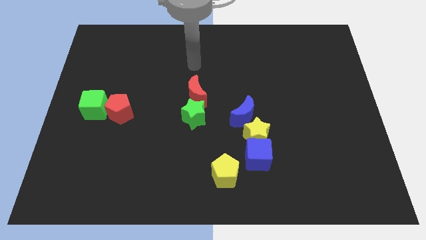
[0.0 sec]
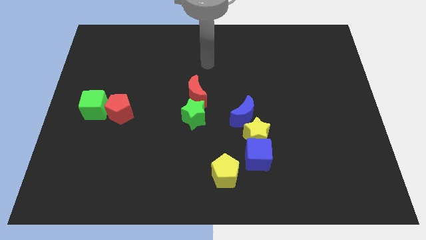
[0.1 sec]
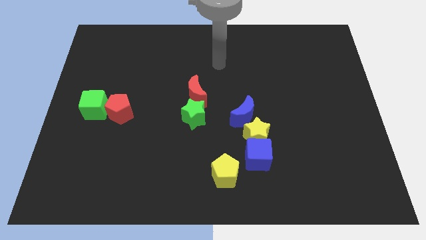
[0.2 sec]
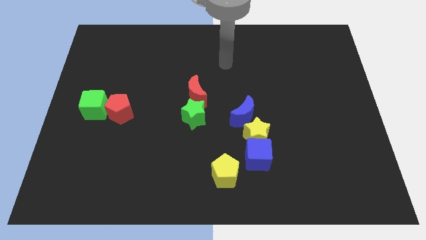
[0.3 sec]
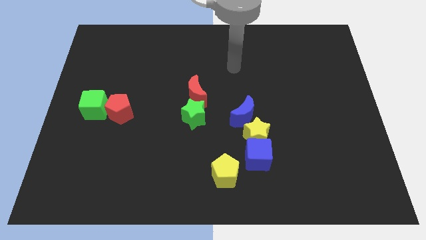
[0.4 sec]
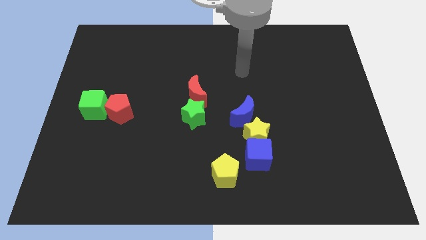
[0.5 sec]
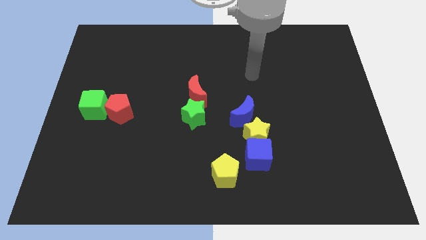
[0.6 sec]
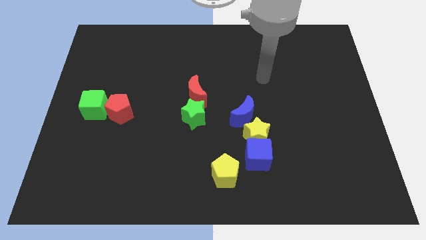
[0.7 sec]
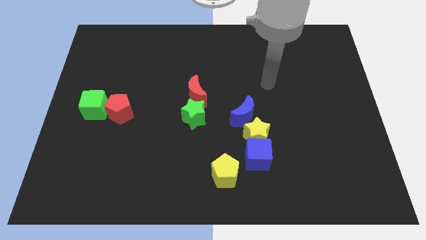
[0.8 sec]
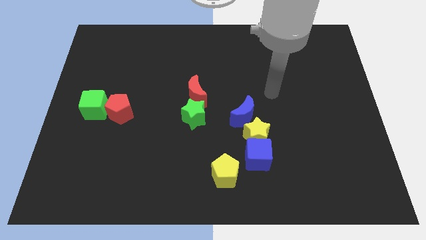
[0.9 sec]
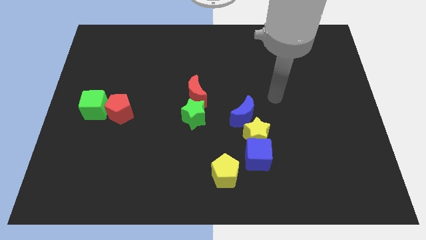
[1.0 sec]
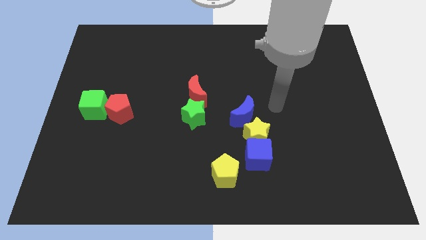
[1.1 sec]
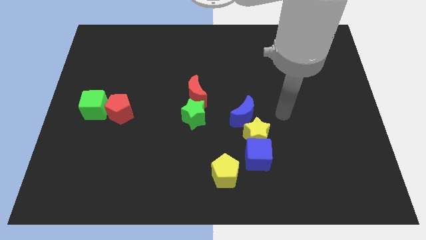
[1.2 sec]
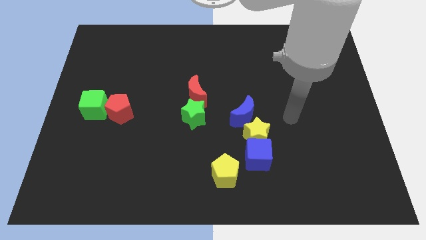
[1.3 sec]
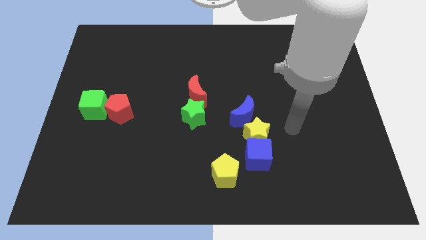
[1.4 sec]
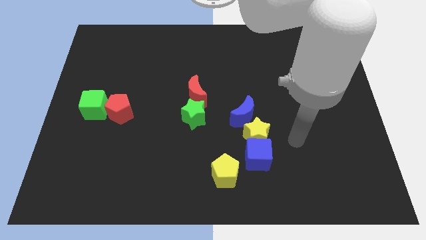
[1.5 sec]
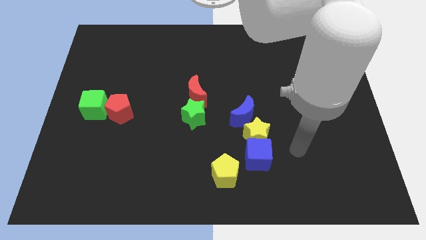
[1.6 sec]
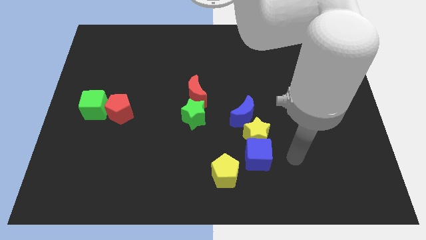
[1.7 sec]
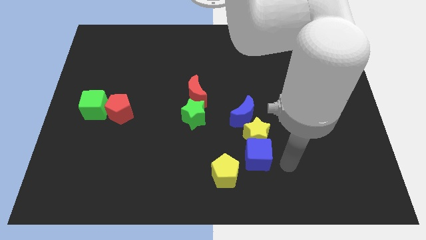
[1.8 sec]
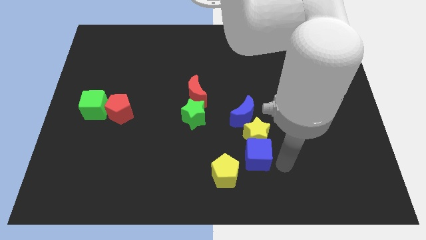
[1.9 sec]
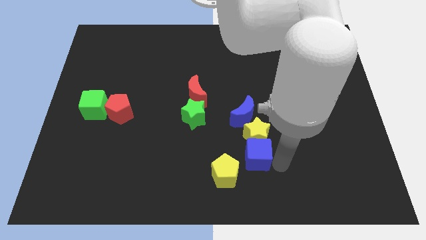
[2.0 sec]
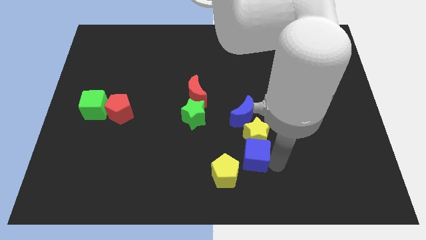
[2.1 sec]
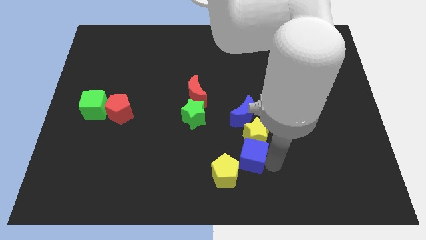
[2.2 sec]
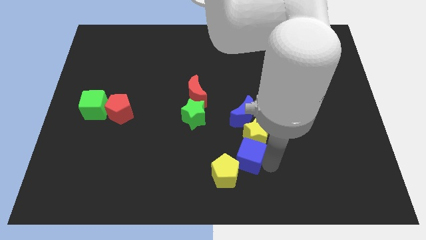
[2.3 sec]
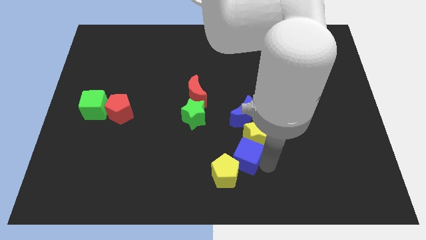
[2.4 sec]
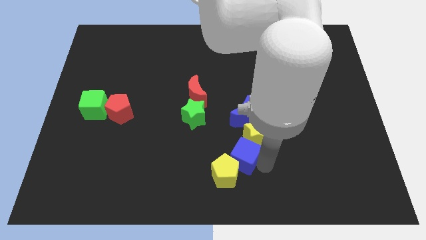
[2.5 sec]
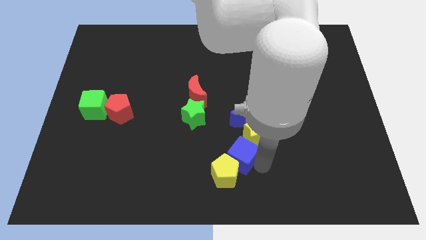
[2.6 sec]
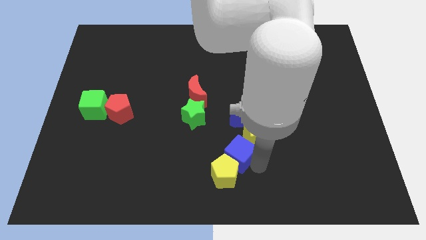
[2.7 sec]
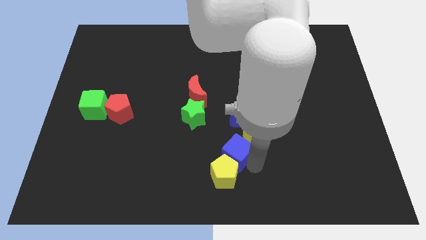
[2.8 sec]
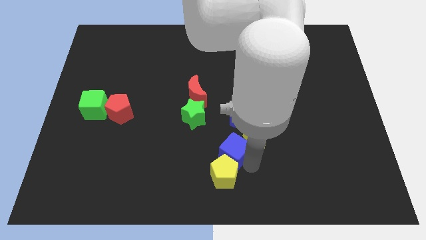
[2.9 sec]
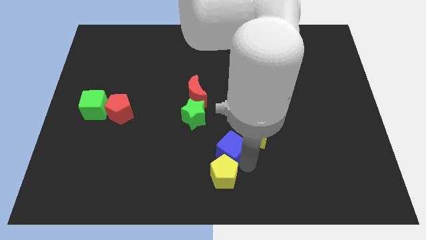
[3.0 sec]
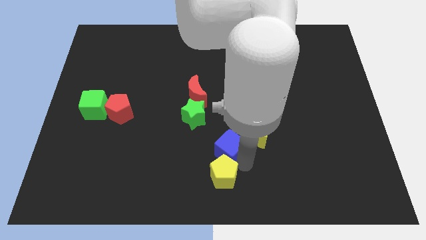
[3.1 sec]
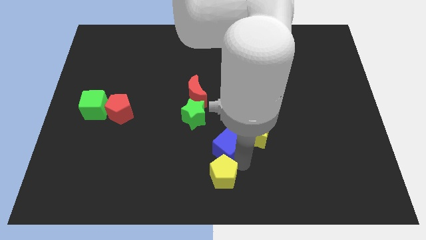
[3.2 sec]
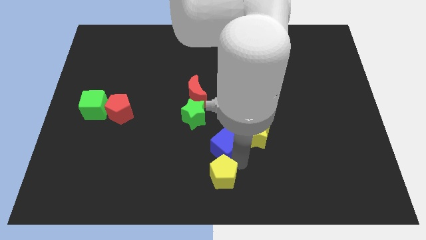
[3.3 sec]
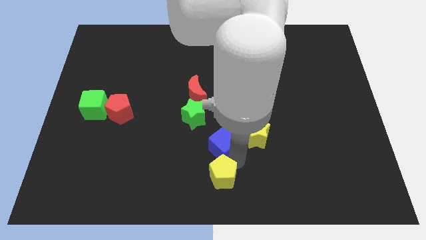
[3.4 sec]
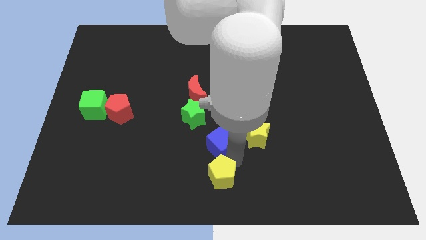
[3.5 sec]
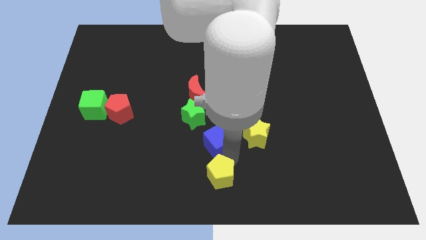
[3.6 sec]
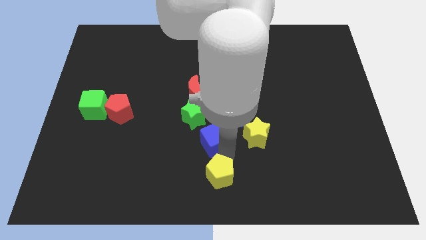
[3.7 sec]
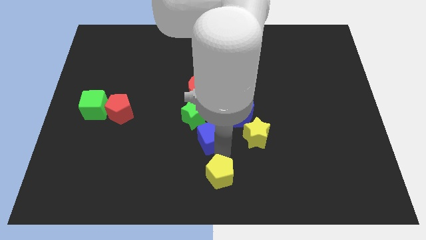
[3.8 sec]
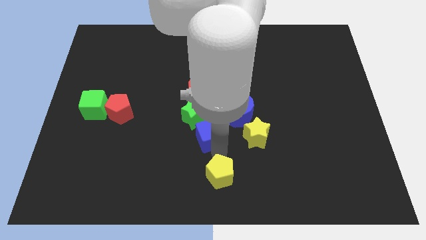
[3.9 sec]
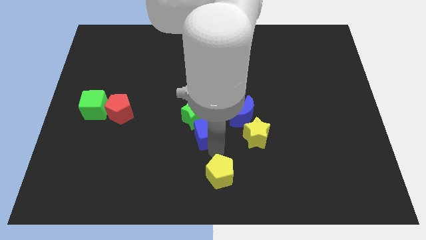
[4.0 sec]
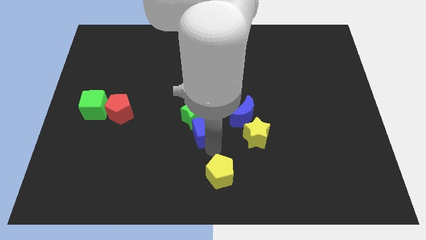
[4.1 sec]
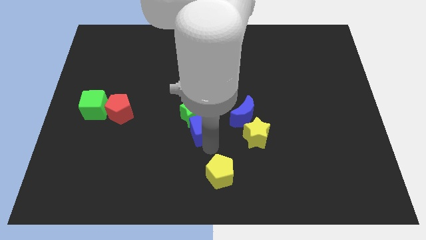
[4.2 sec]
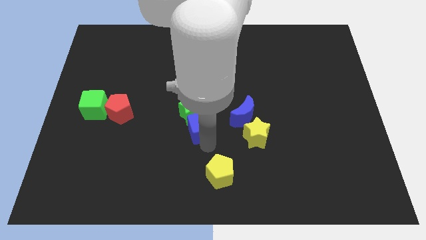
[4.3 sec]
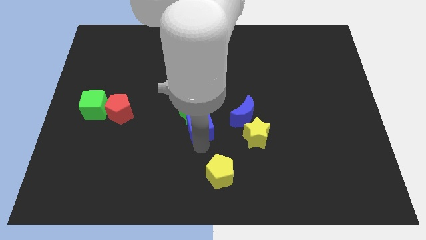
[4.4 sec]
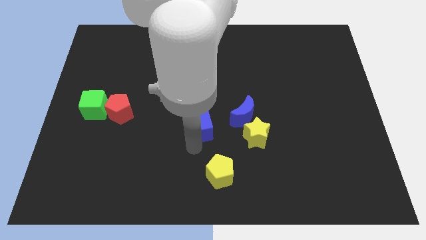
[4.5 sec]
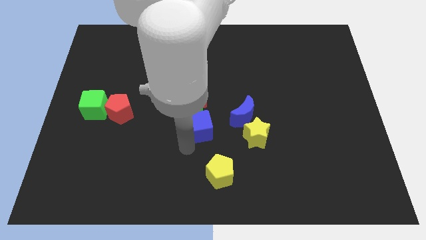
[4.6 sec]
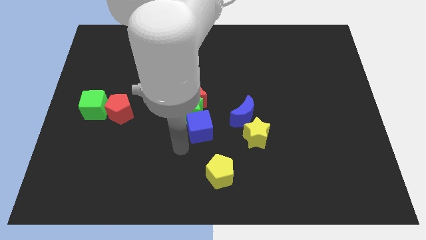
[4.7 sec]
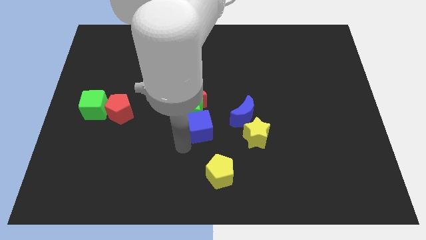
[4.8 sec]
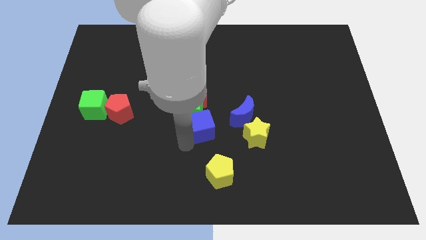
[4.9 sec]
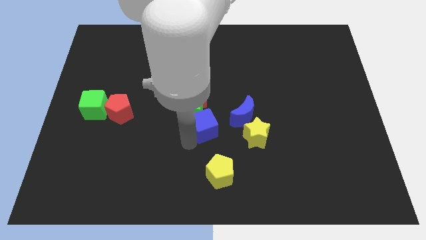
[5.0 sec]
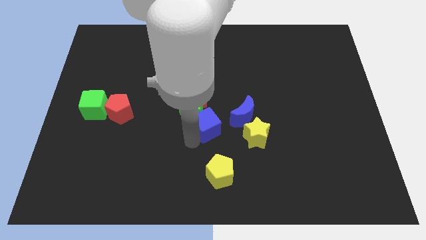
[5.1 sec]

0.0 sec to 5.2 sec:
put the blue cube to the bottom right side of the red moon

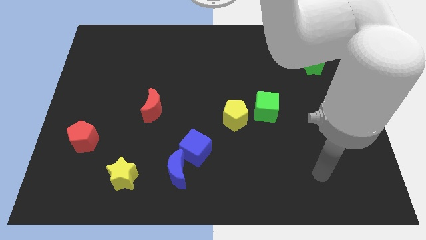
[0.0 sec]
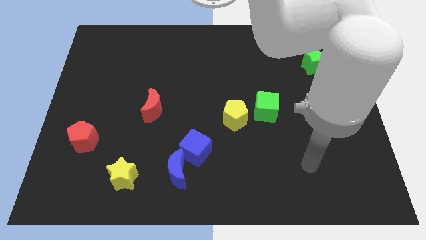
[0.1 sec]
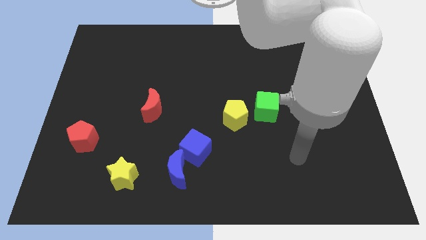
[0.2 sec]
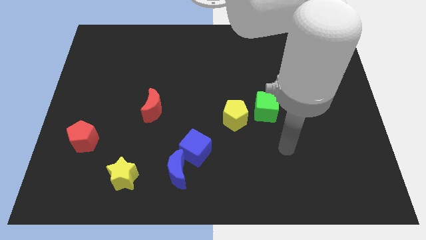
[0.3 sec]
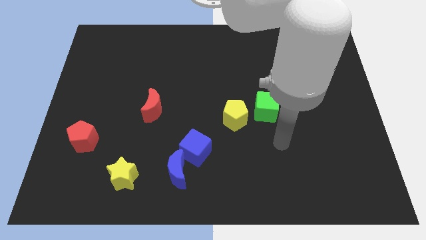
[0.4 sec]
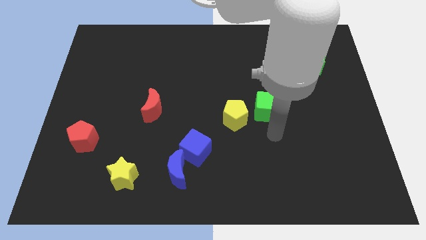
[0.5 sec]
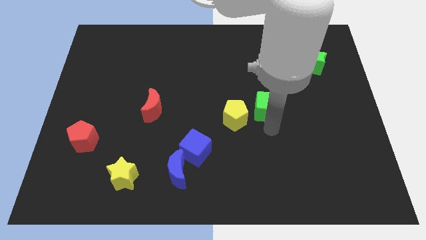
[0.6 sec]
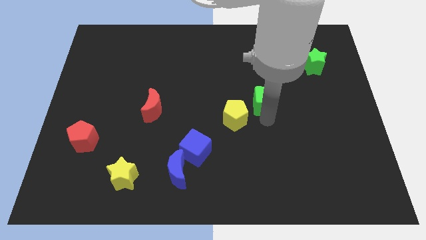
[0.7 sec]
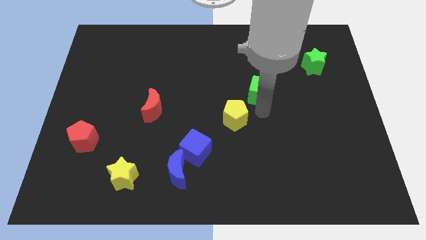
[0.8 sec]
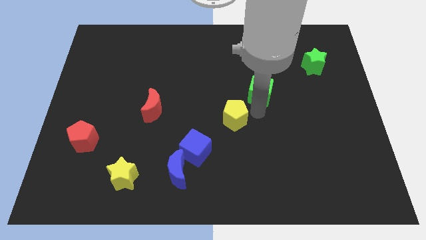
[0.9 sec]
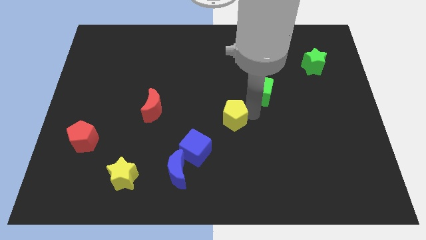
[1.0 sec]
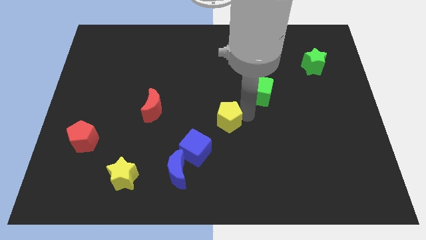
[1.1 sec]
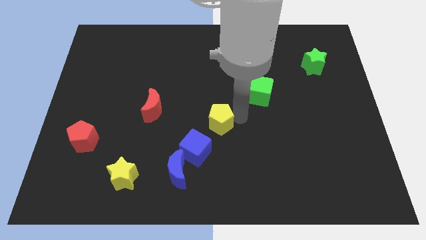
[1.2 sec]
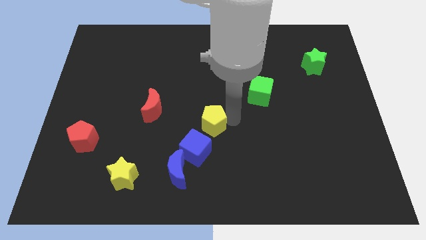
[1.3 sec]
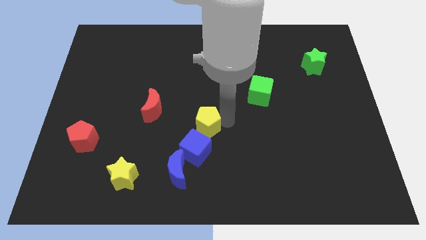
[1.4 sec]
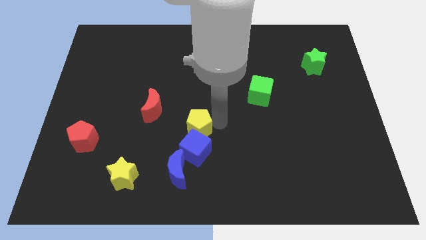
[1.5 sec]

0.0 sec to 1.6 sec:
move the yellow pentagon to the top of the blue moon
